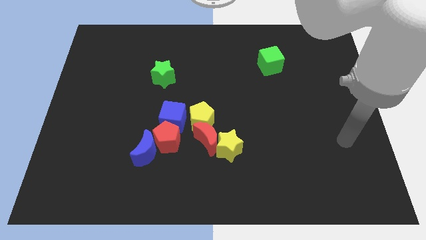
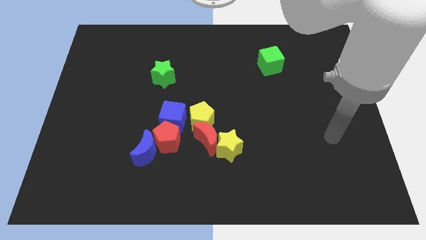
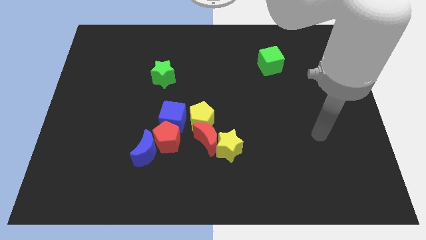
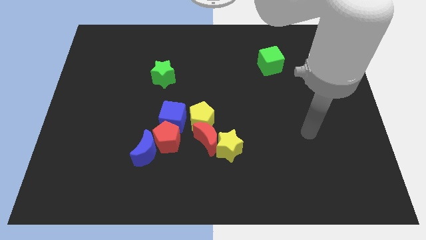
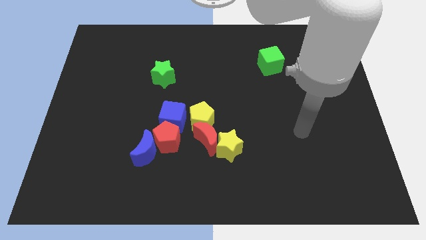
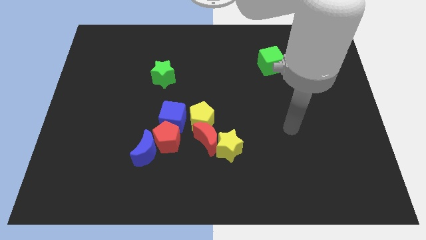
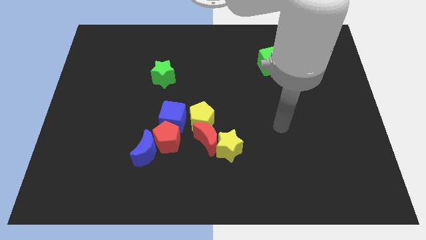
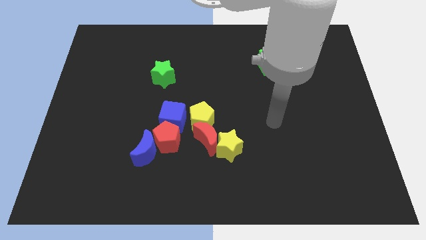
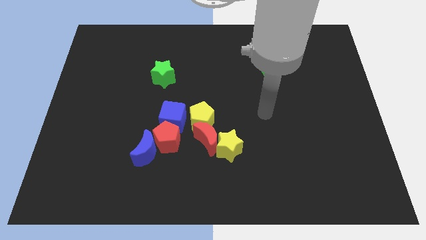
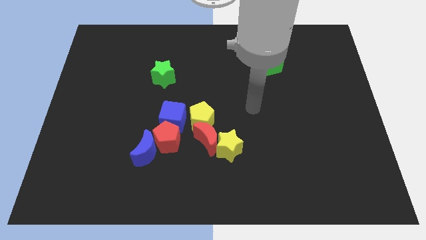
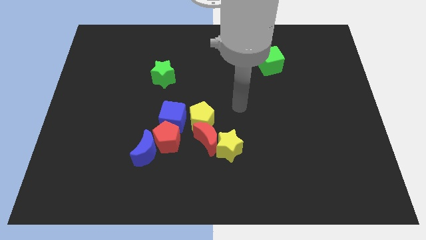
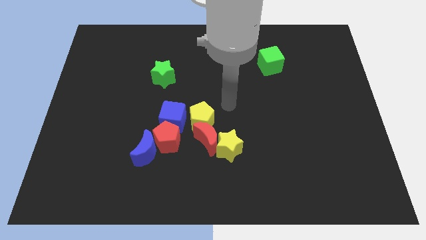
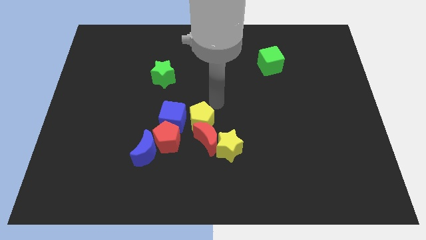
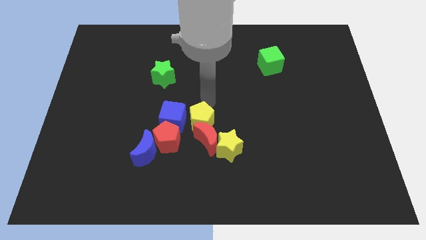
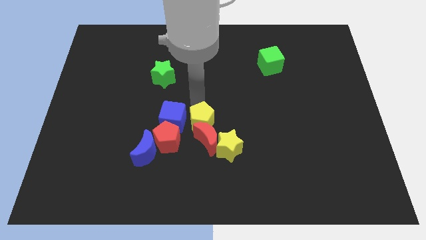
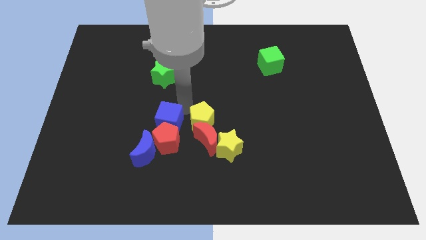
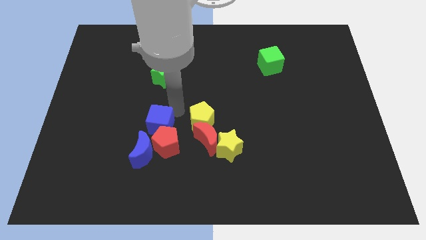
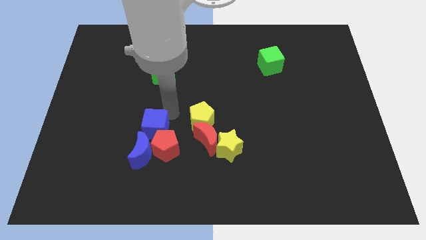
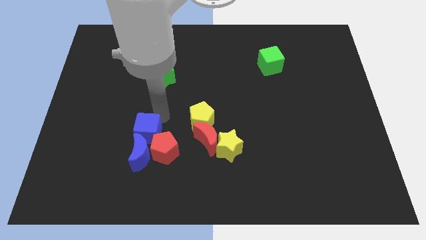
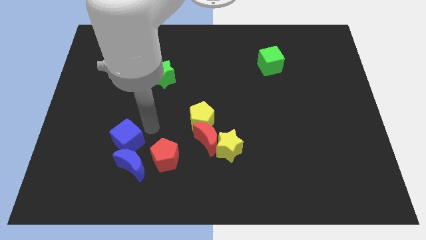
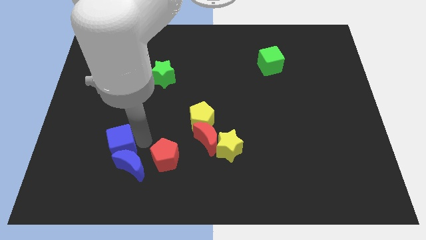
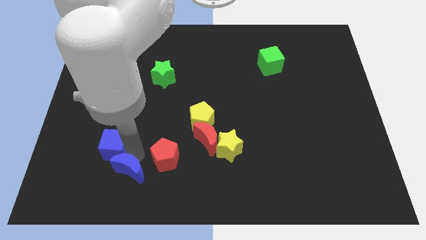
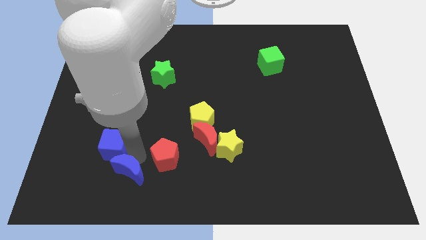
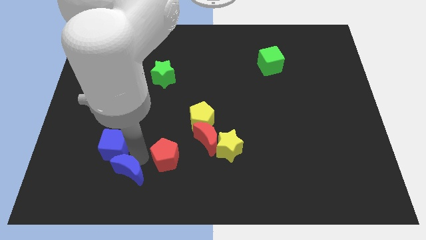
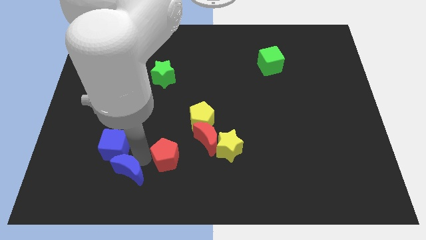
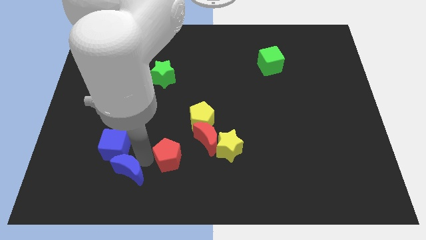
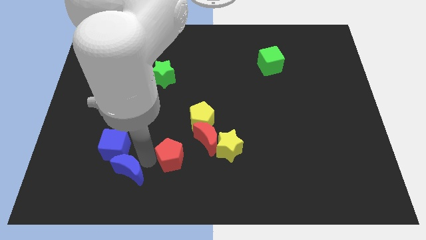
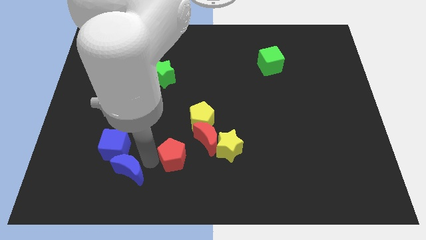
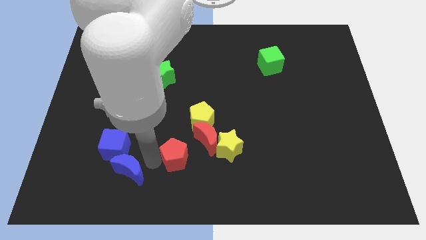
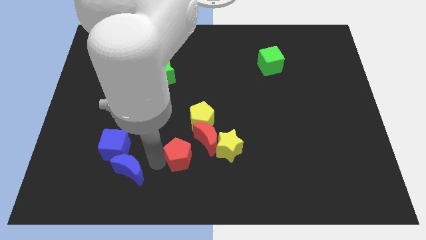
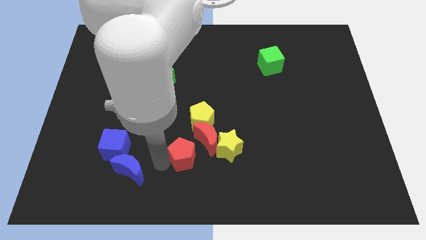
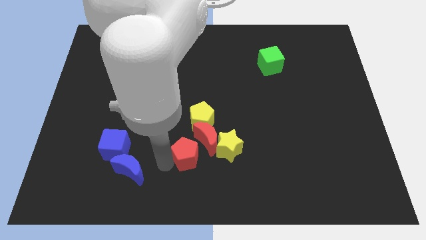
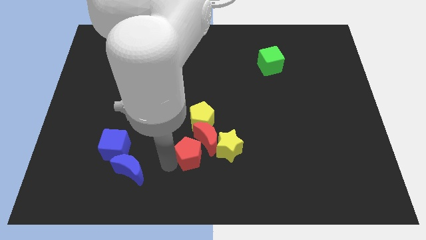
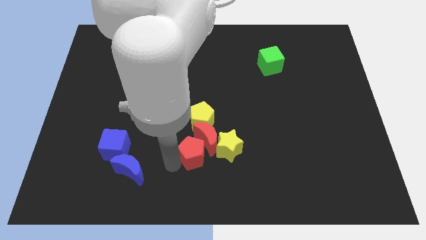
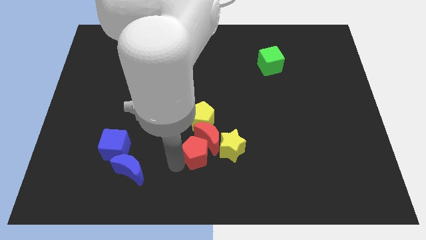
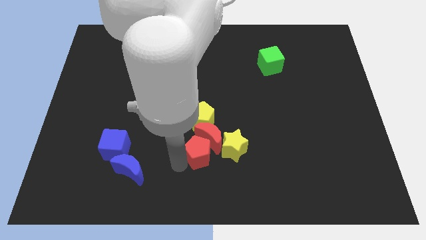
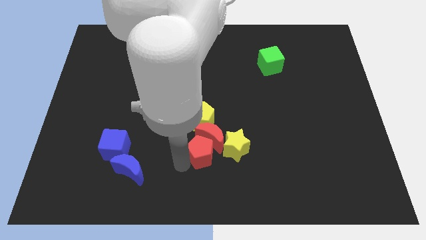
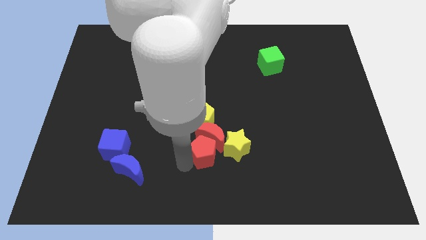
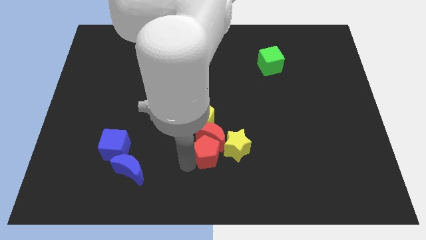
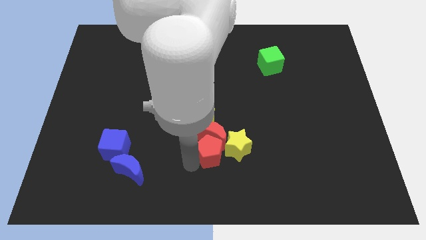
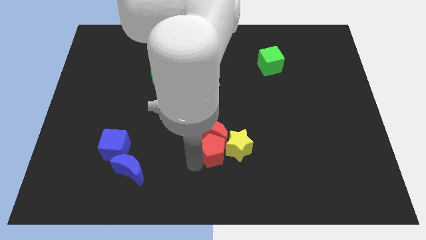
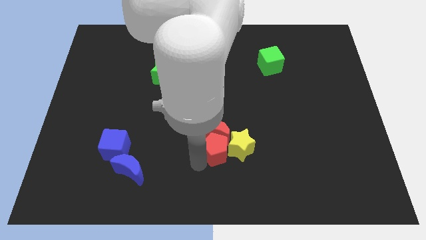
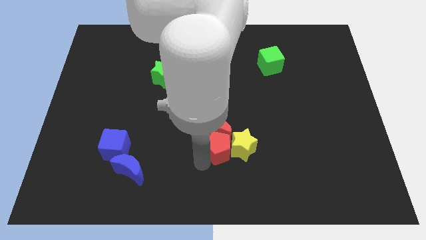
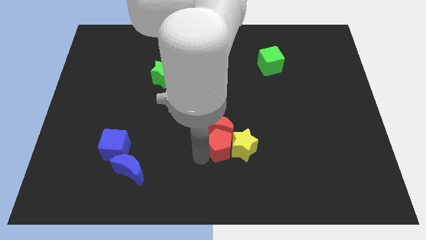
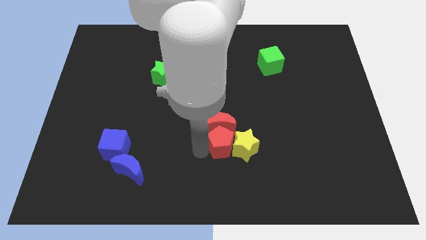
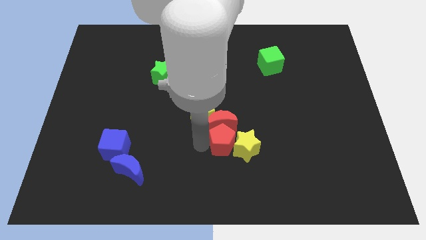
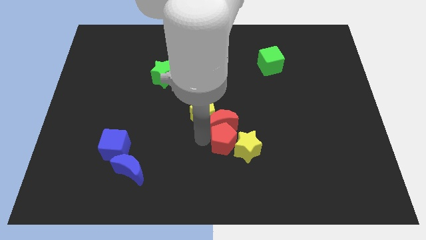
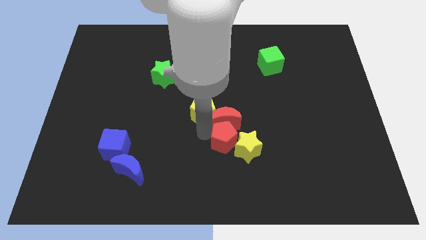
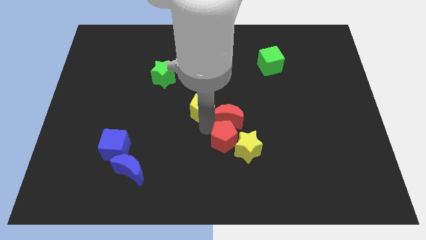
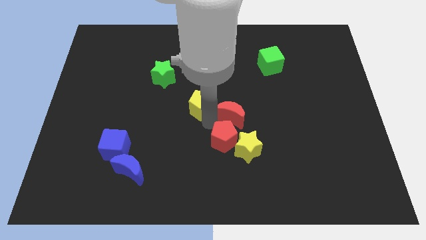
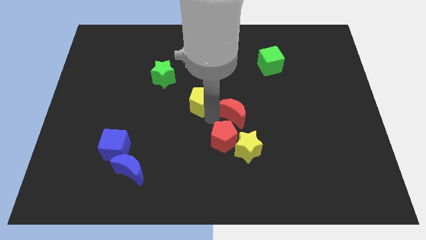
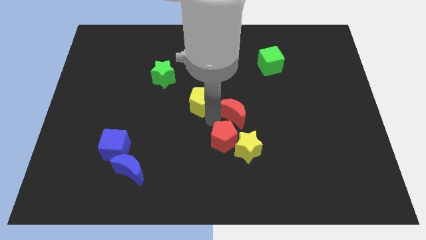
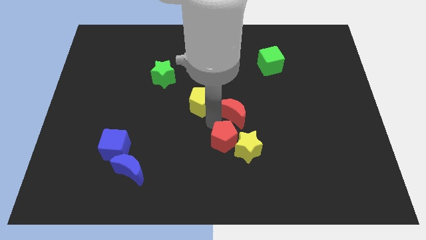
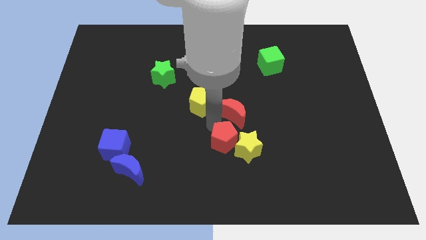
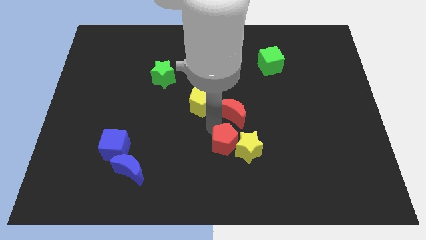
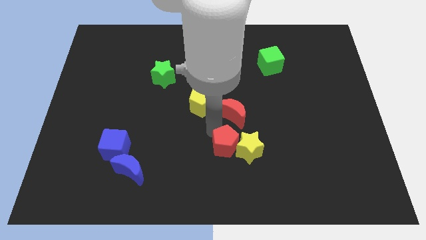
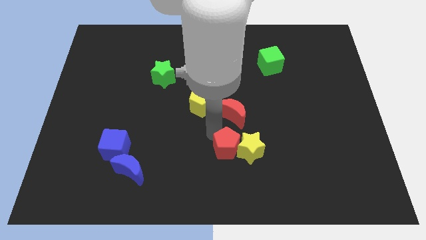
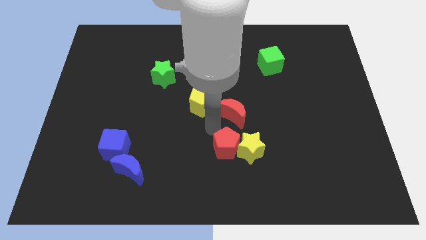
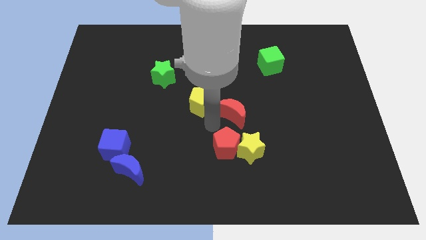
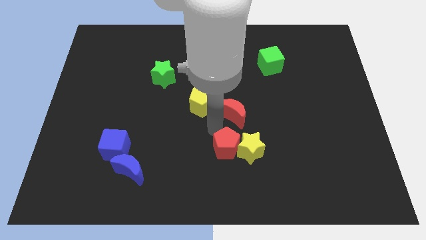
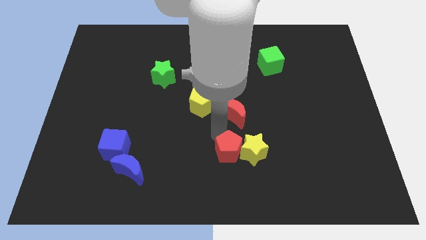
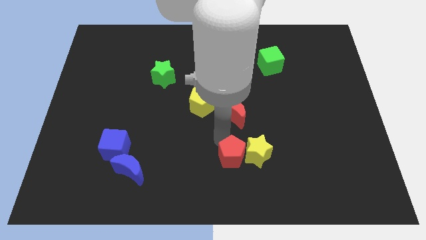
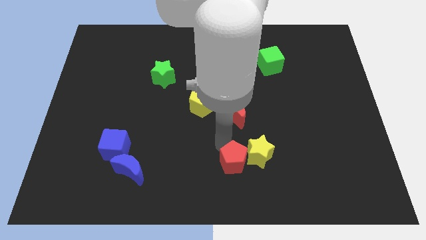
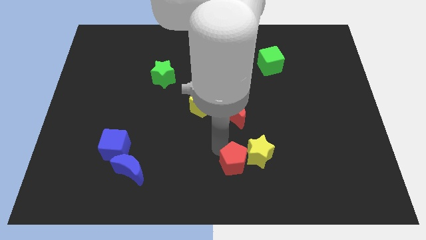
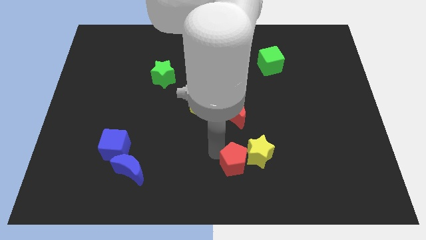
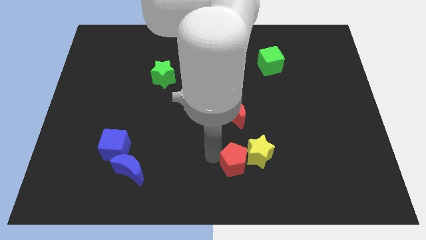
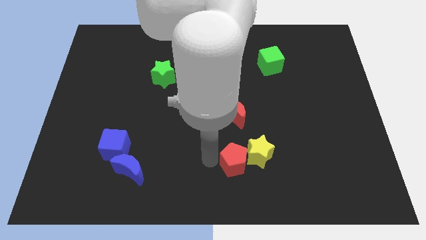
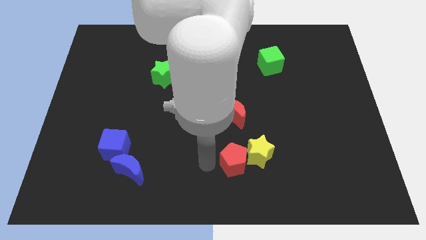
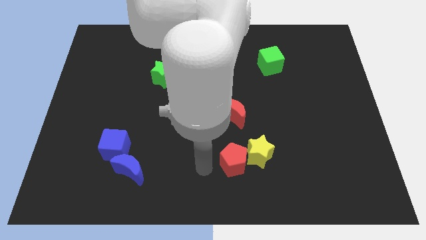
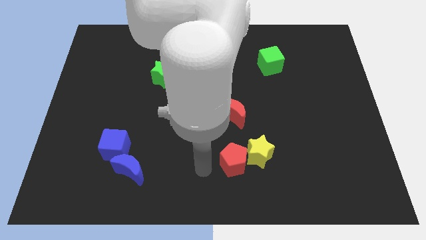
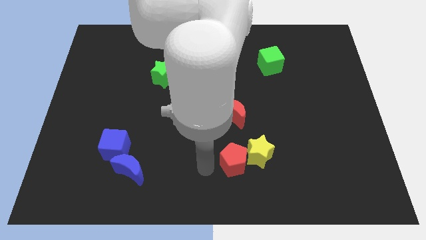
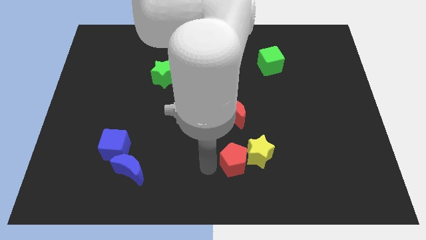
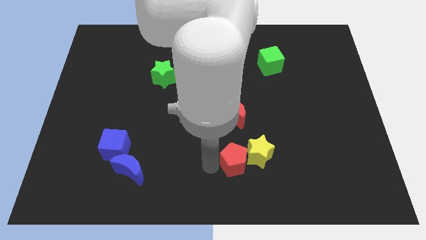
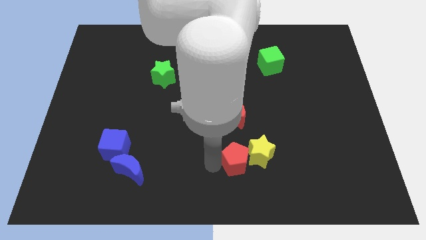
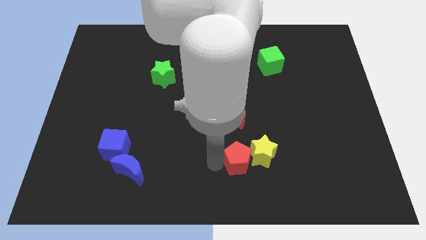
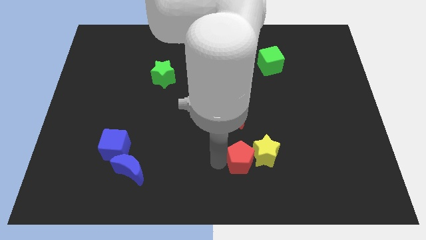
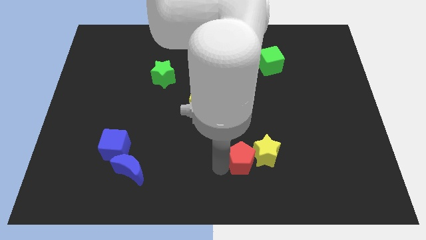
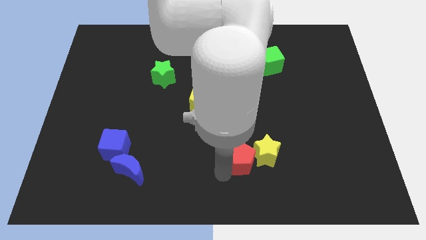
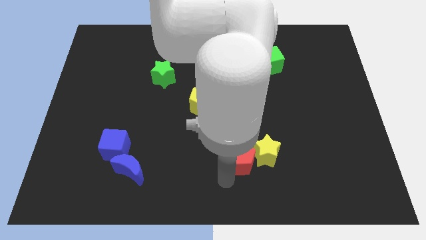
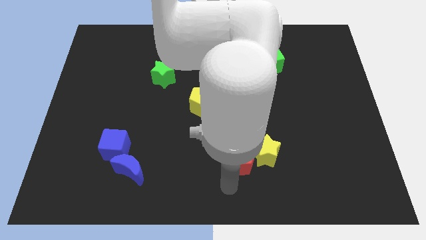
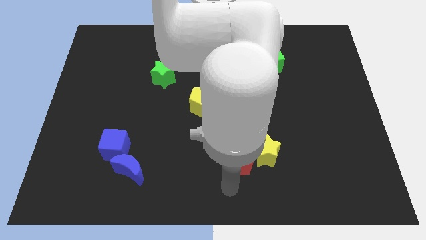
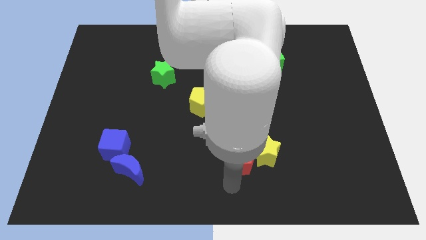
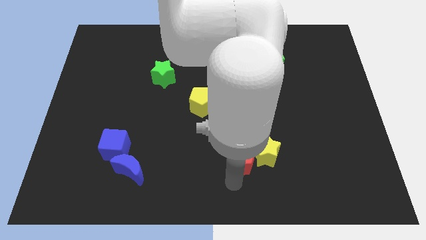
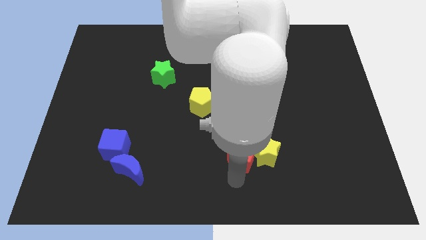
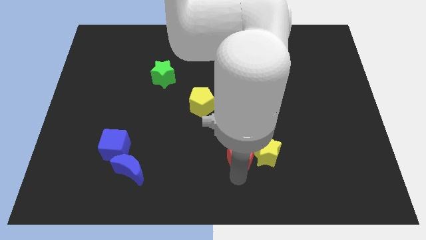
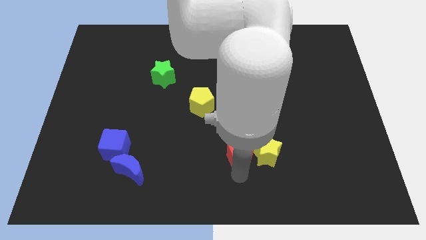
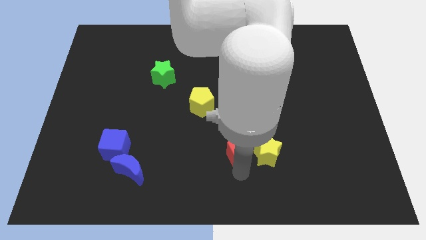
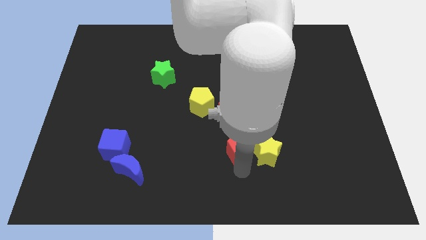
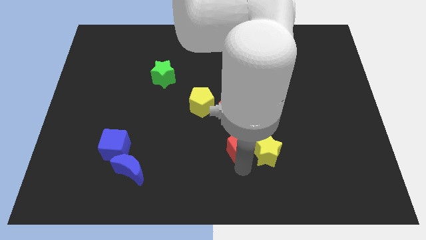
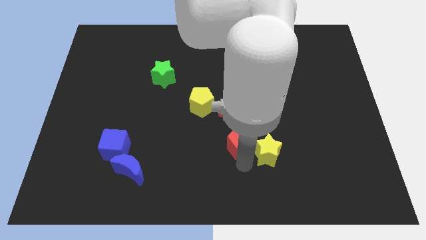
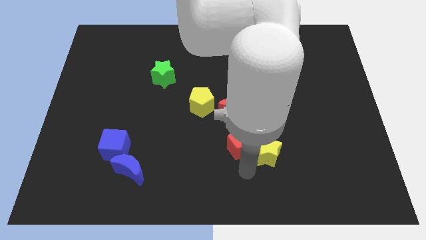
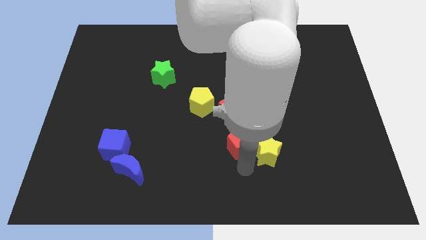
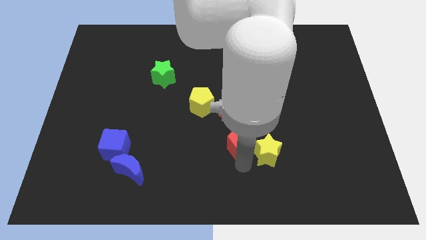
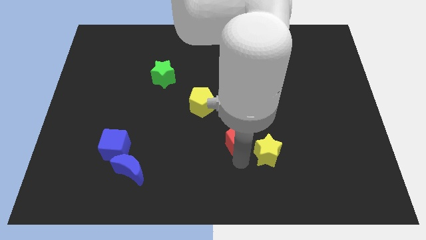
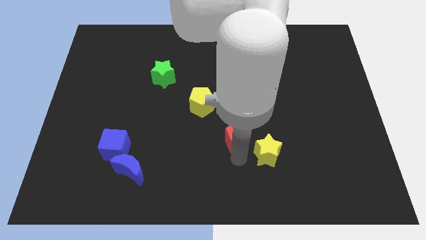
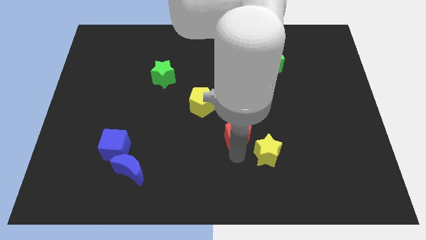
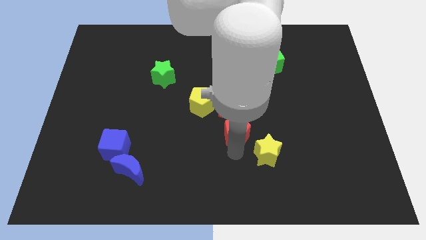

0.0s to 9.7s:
slightly push the red pentagon up and to the right
